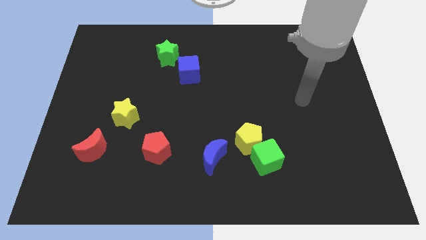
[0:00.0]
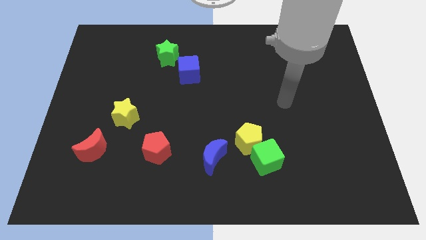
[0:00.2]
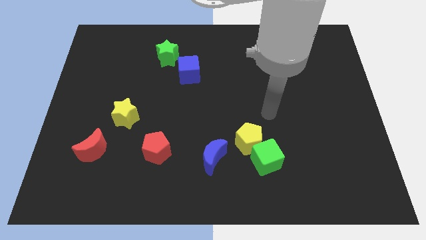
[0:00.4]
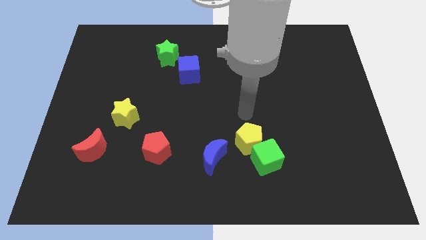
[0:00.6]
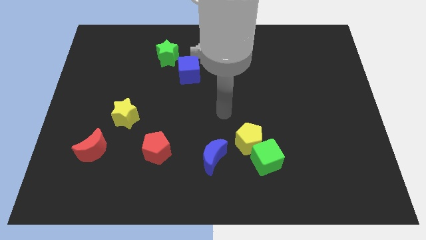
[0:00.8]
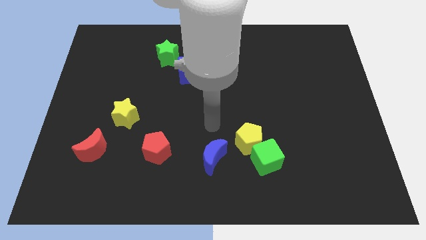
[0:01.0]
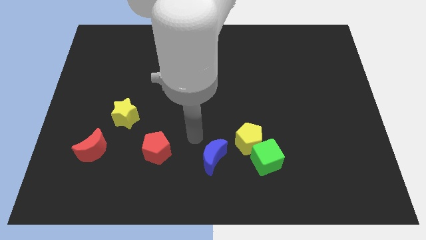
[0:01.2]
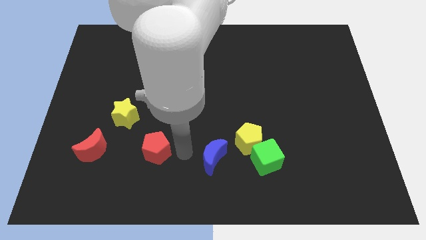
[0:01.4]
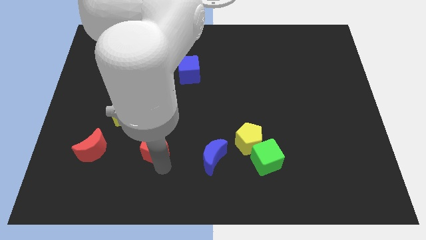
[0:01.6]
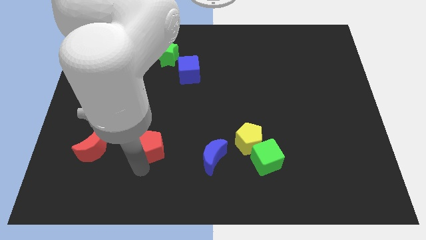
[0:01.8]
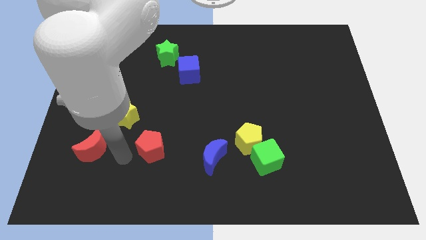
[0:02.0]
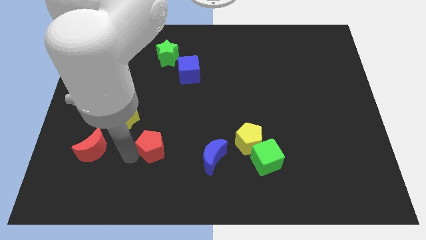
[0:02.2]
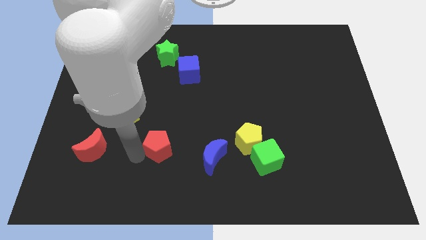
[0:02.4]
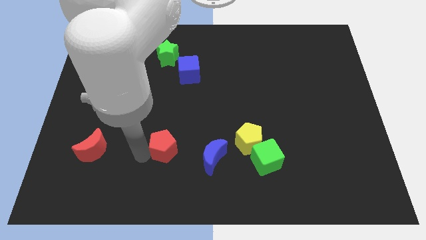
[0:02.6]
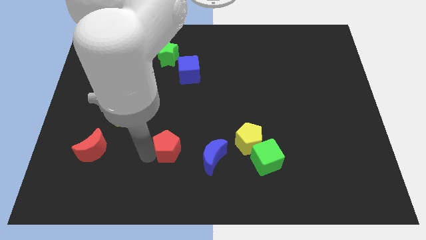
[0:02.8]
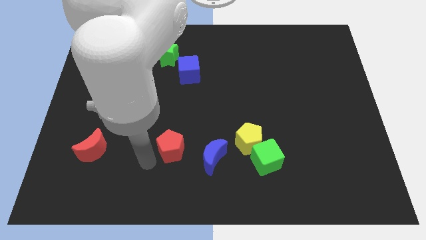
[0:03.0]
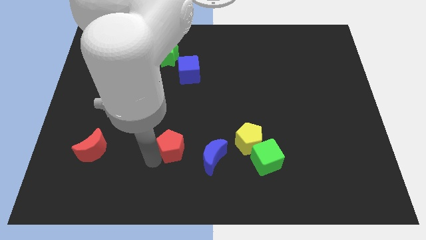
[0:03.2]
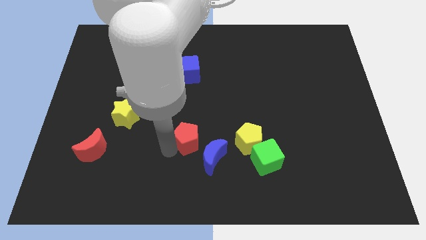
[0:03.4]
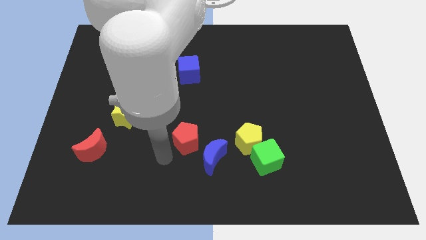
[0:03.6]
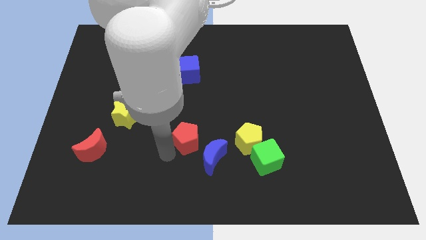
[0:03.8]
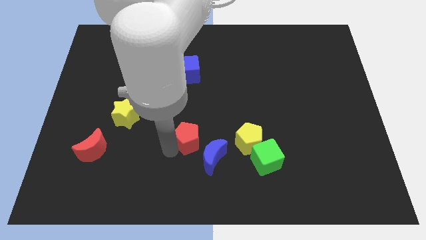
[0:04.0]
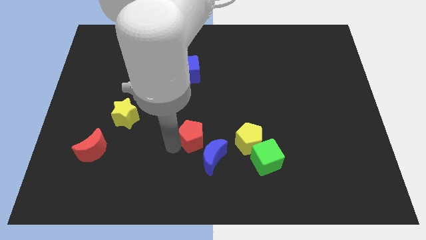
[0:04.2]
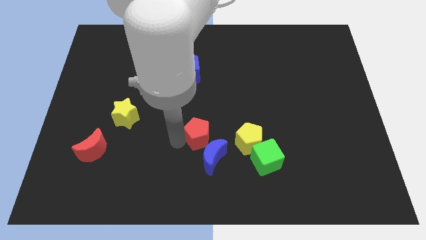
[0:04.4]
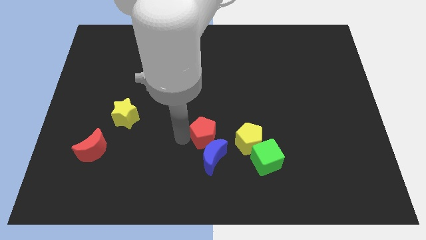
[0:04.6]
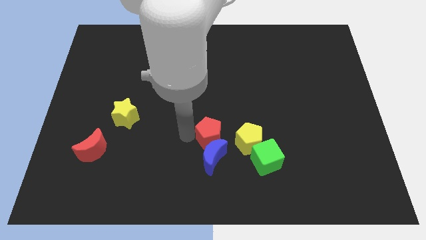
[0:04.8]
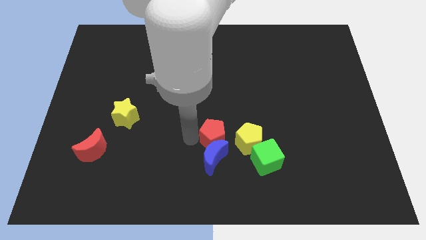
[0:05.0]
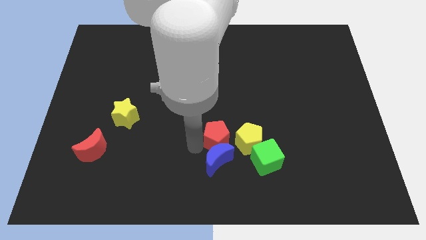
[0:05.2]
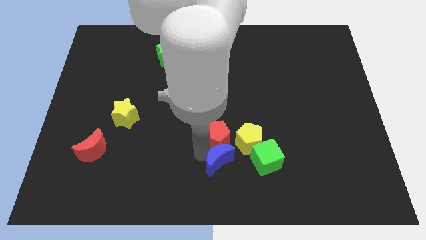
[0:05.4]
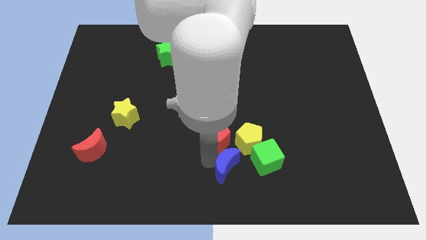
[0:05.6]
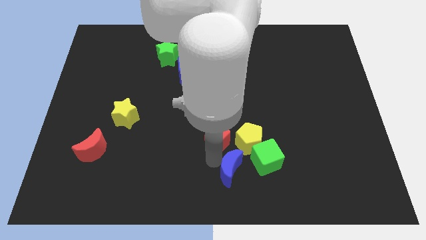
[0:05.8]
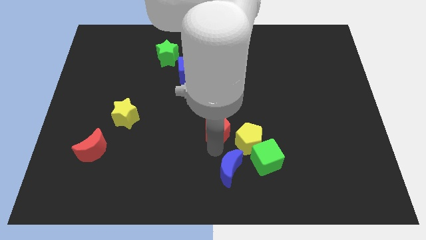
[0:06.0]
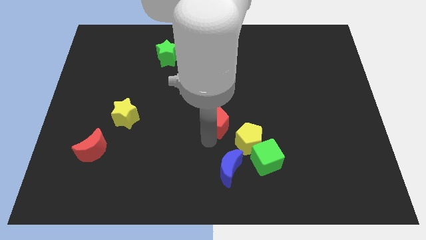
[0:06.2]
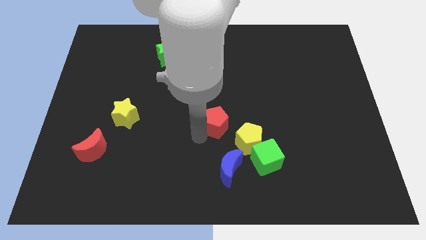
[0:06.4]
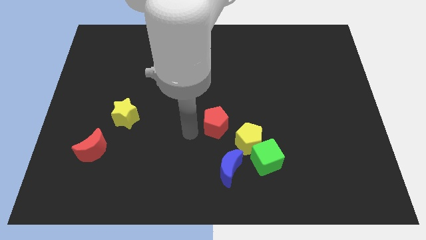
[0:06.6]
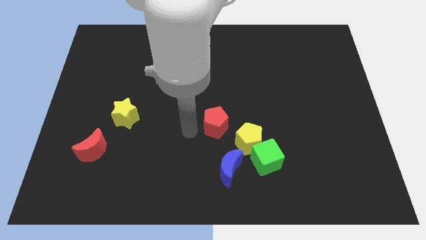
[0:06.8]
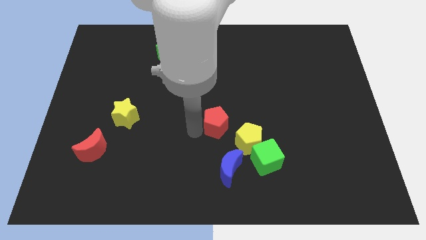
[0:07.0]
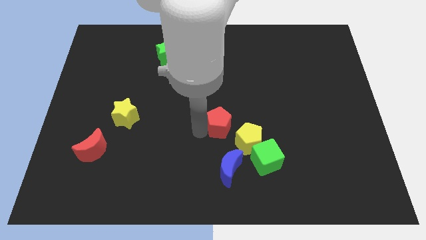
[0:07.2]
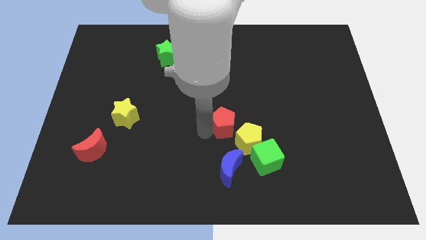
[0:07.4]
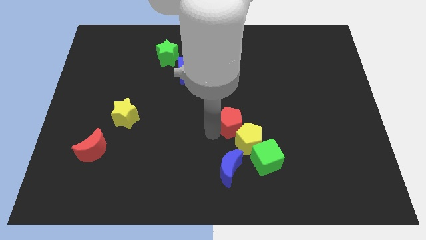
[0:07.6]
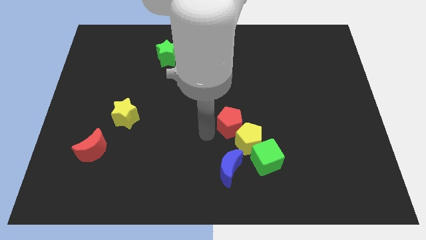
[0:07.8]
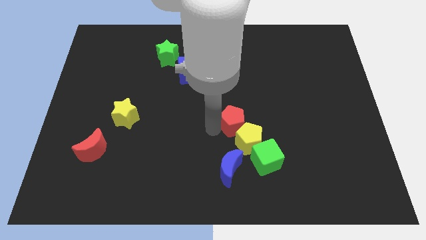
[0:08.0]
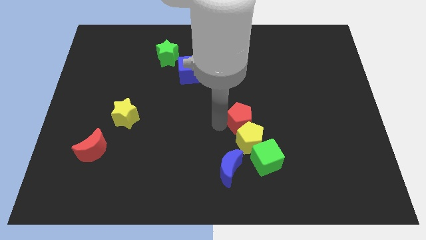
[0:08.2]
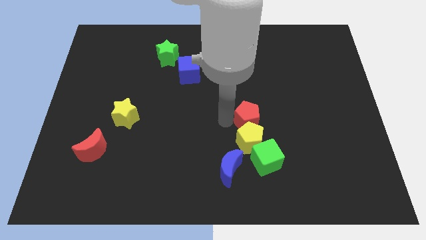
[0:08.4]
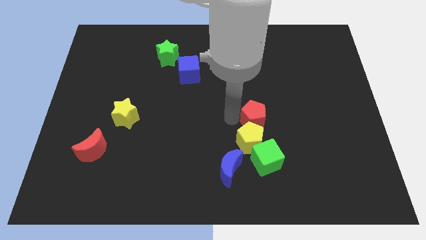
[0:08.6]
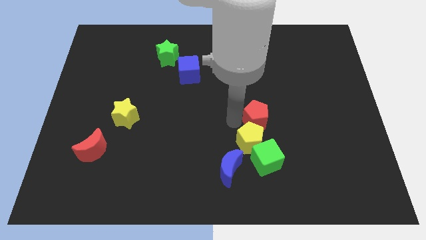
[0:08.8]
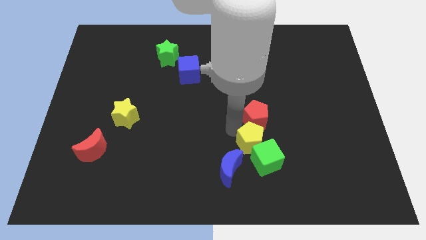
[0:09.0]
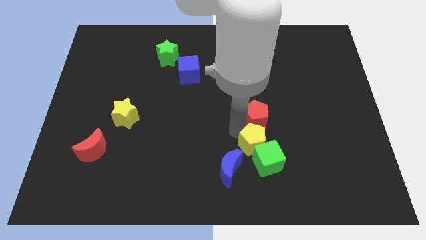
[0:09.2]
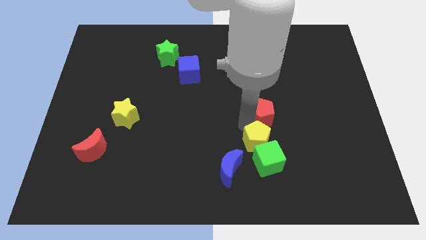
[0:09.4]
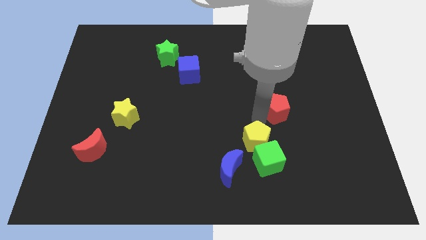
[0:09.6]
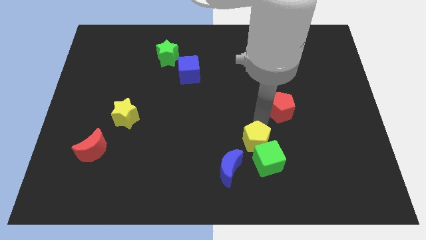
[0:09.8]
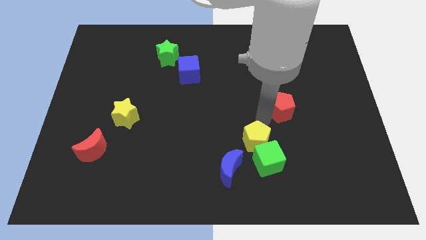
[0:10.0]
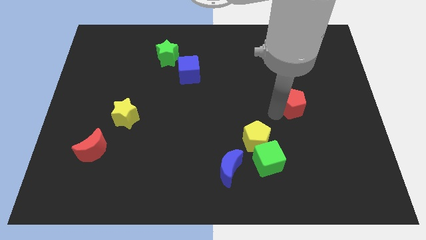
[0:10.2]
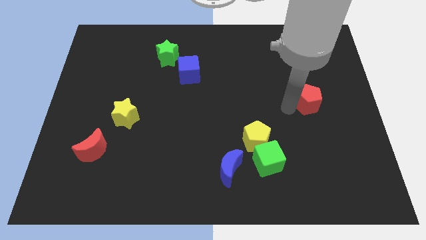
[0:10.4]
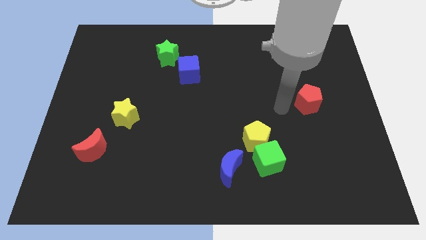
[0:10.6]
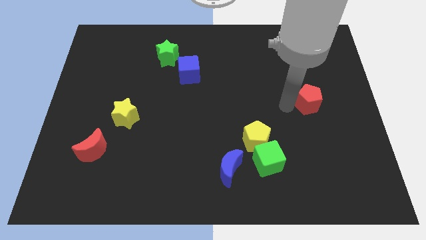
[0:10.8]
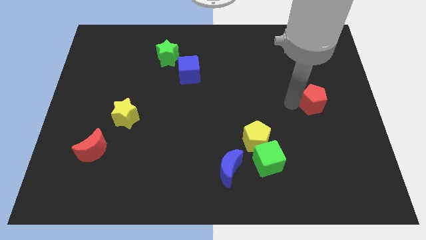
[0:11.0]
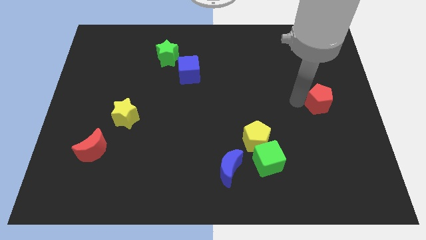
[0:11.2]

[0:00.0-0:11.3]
move the red pentagon to the center right

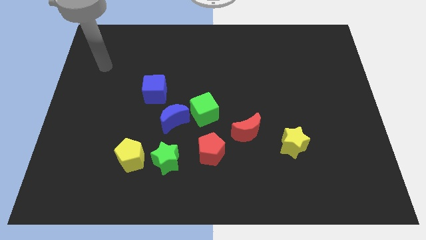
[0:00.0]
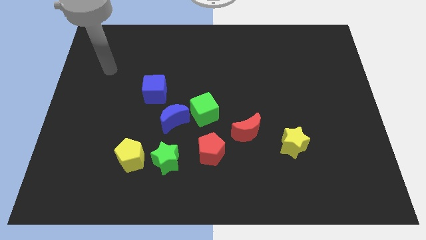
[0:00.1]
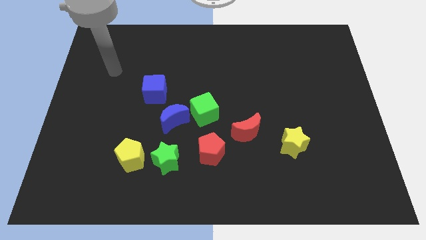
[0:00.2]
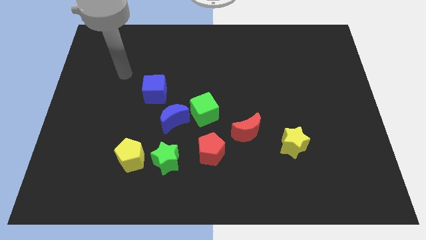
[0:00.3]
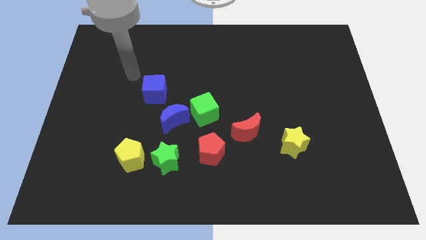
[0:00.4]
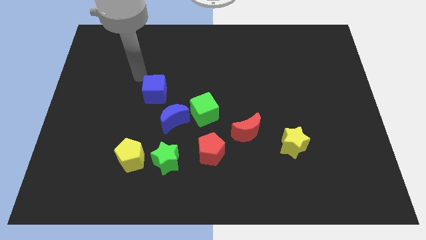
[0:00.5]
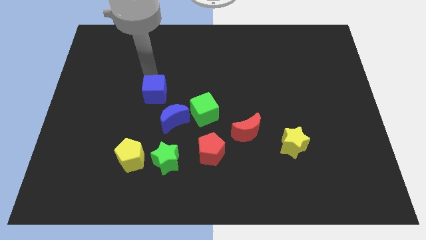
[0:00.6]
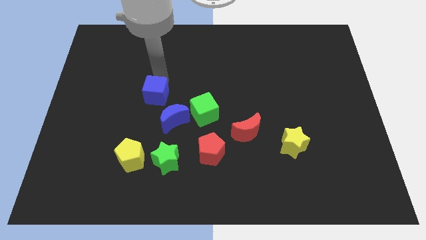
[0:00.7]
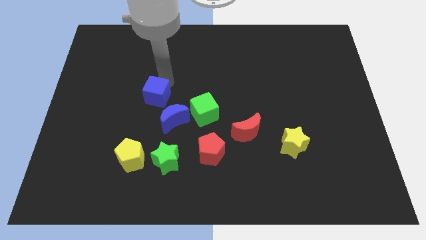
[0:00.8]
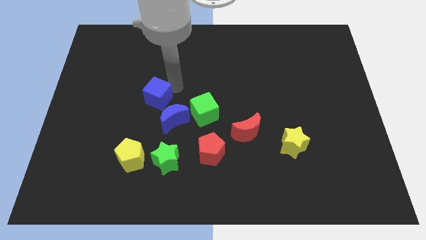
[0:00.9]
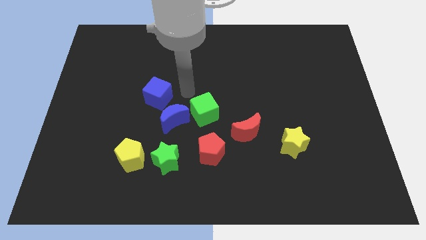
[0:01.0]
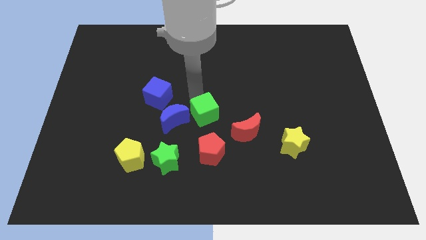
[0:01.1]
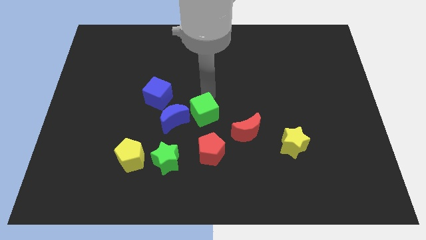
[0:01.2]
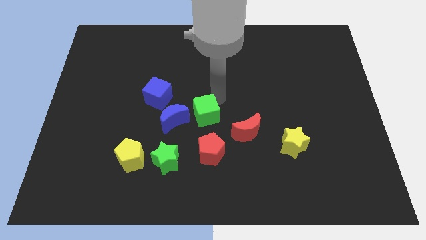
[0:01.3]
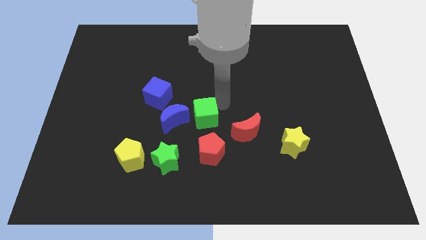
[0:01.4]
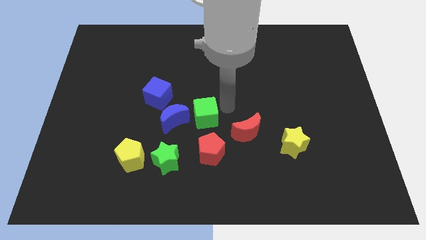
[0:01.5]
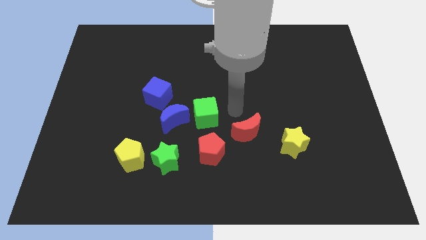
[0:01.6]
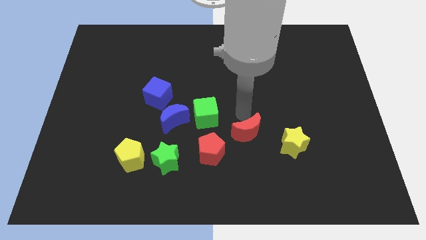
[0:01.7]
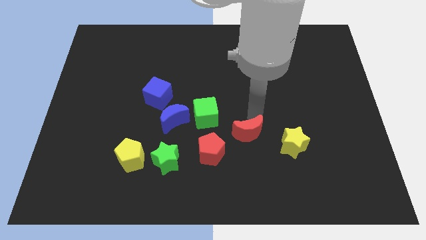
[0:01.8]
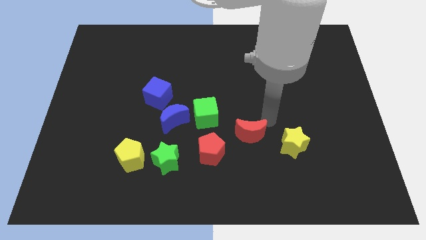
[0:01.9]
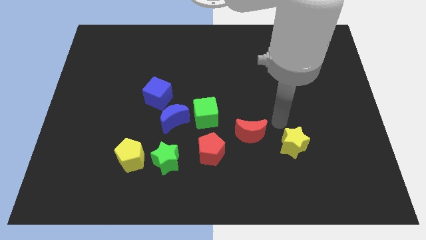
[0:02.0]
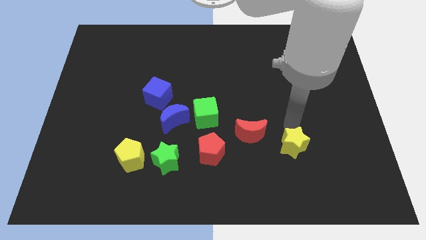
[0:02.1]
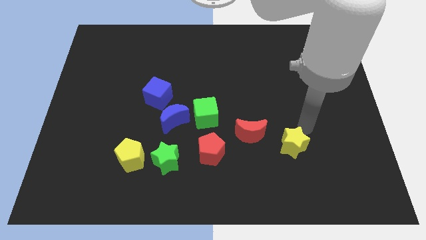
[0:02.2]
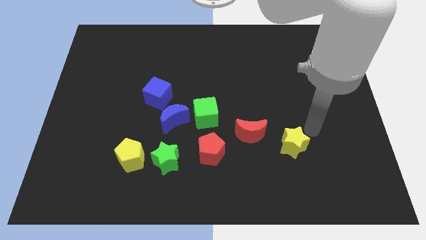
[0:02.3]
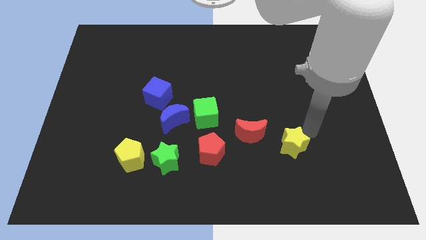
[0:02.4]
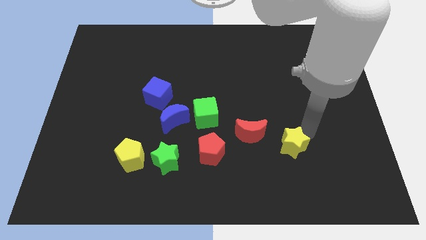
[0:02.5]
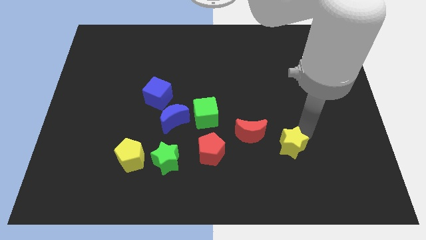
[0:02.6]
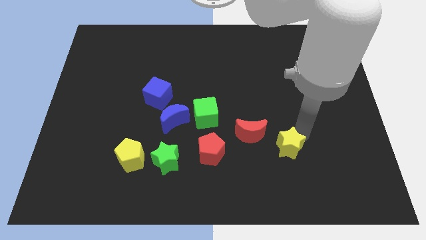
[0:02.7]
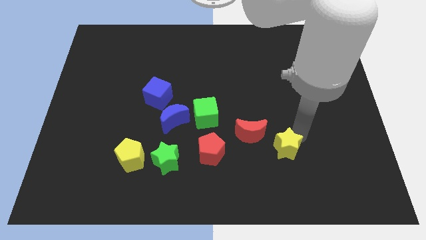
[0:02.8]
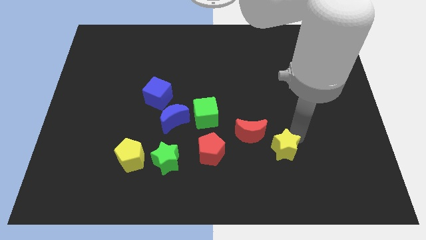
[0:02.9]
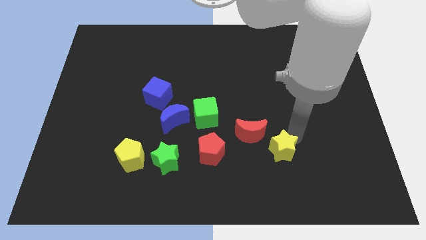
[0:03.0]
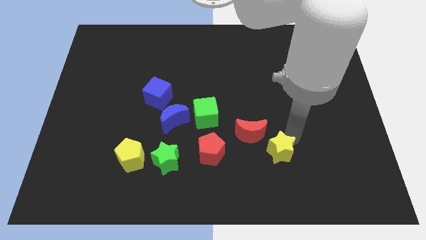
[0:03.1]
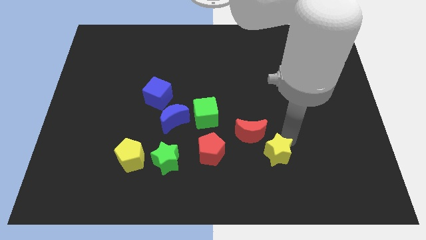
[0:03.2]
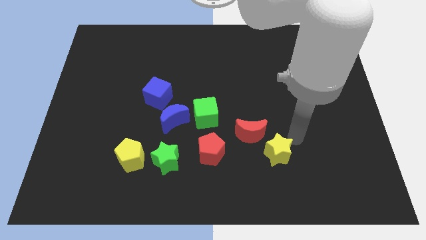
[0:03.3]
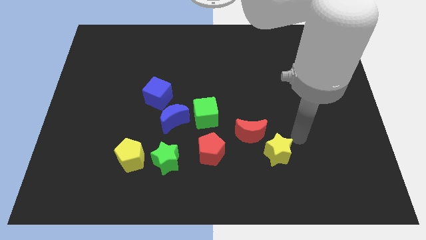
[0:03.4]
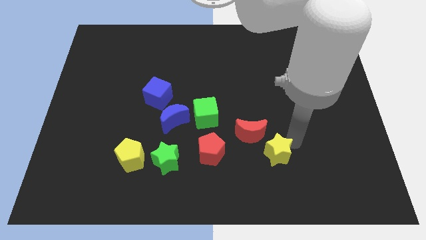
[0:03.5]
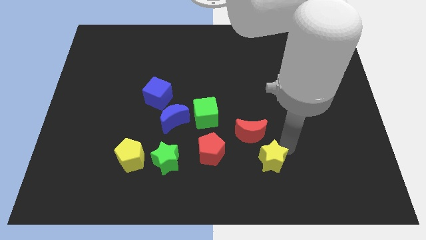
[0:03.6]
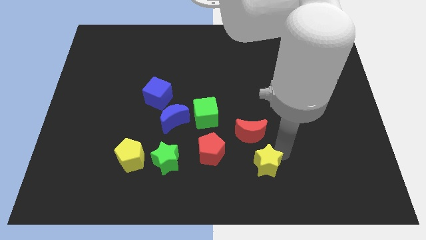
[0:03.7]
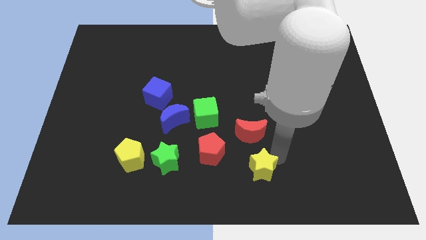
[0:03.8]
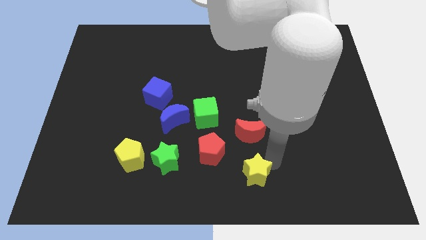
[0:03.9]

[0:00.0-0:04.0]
put the yellow star to the bottom
